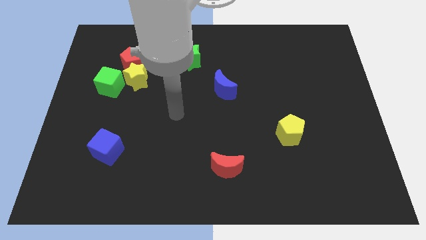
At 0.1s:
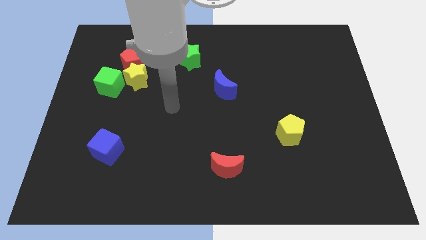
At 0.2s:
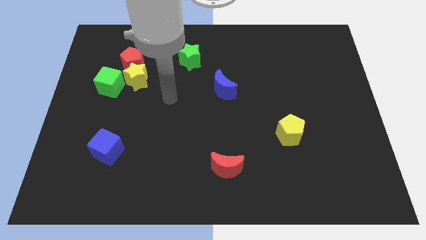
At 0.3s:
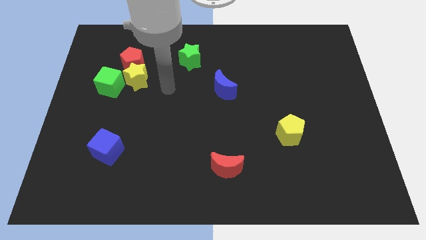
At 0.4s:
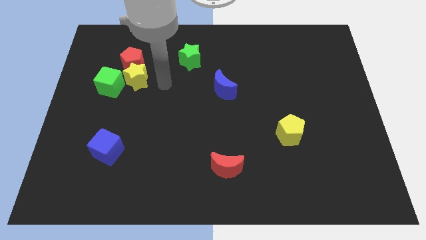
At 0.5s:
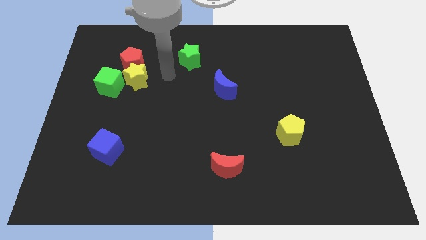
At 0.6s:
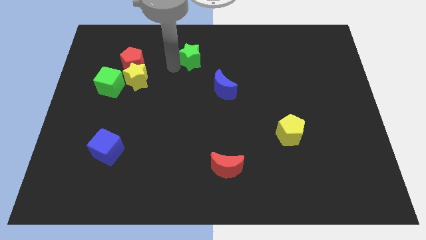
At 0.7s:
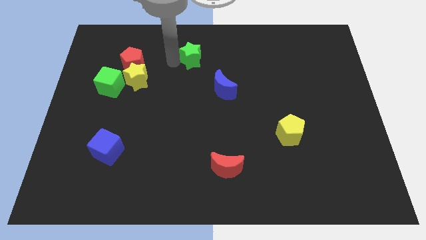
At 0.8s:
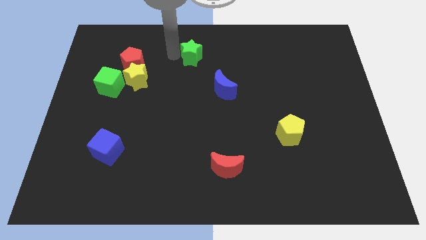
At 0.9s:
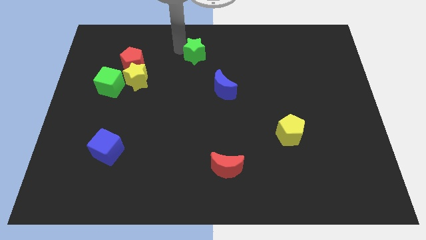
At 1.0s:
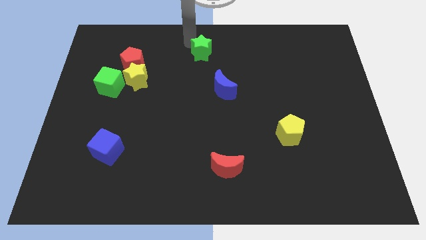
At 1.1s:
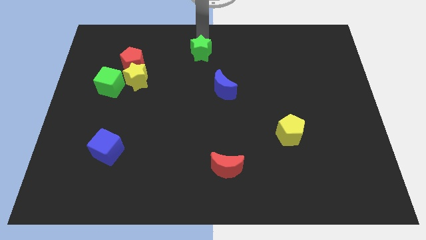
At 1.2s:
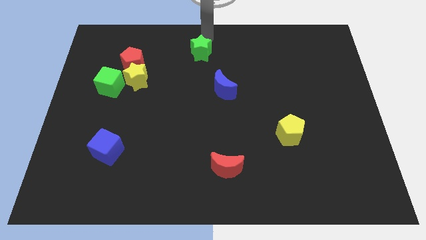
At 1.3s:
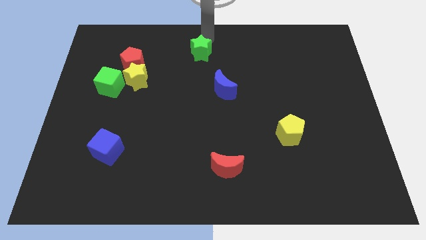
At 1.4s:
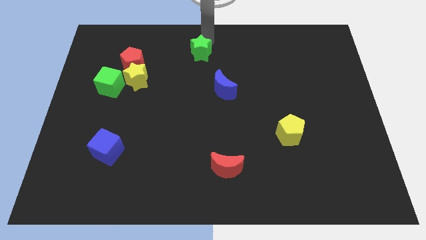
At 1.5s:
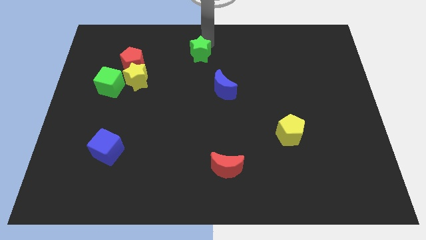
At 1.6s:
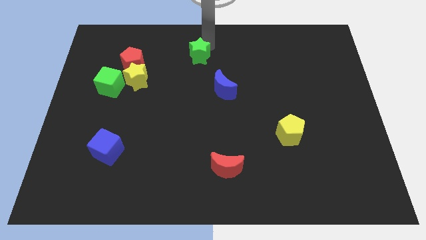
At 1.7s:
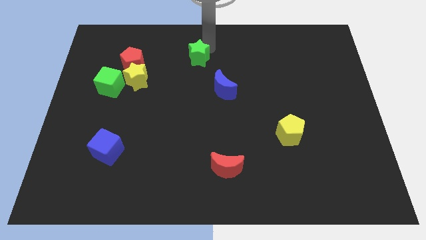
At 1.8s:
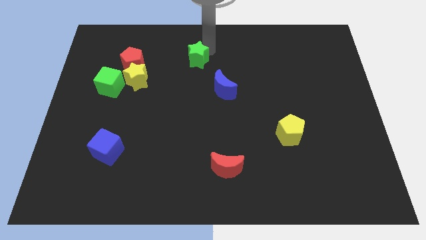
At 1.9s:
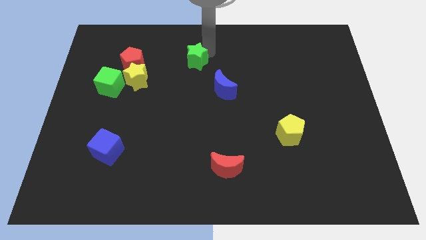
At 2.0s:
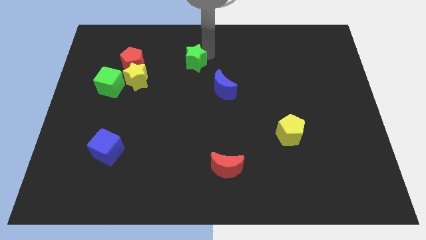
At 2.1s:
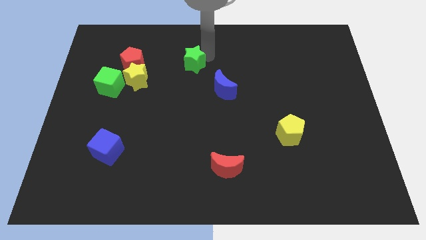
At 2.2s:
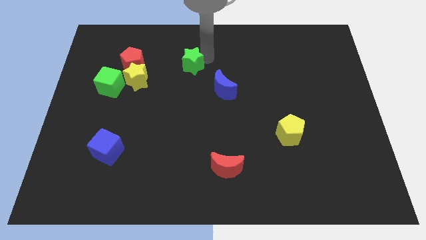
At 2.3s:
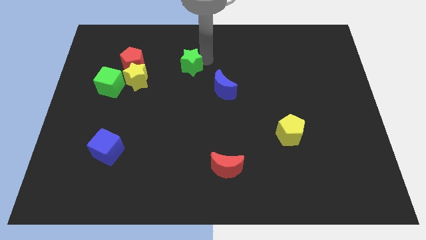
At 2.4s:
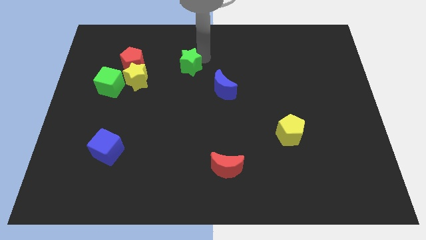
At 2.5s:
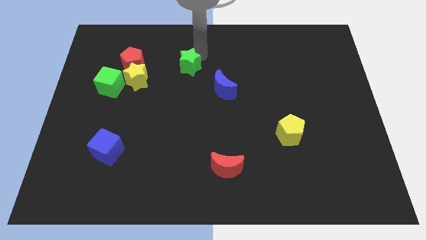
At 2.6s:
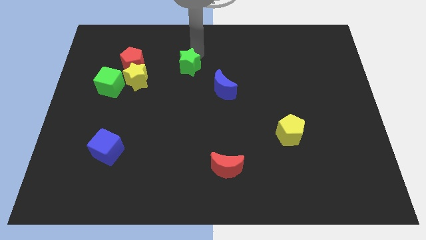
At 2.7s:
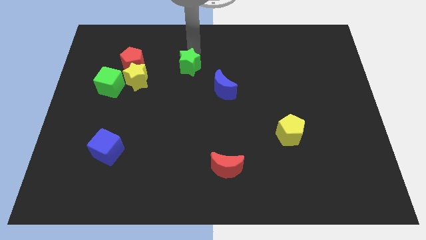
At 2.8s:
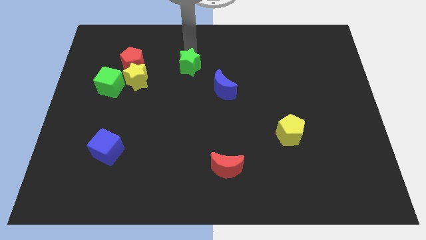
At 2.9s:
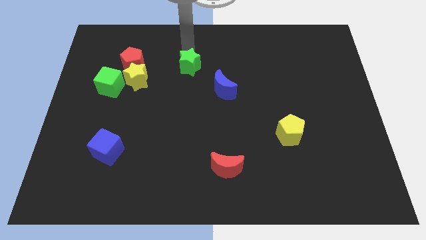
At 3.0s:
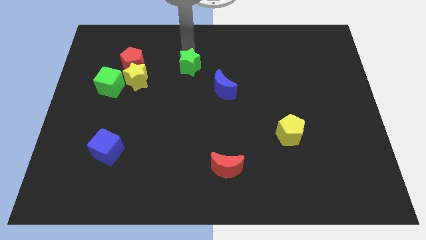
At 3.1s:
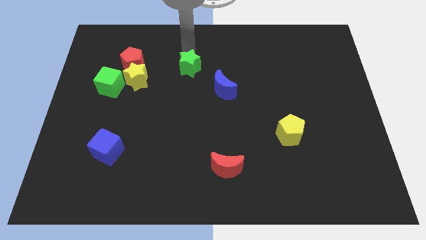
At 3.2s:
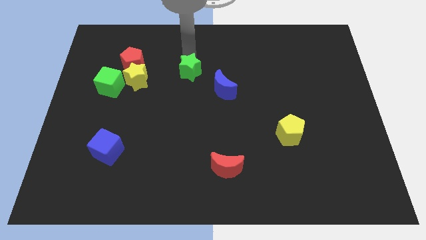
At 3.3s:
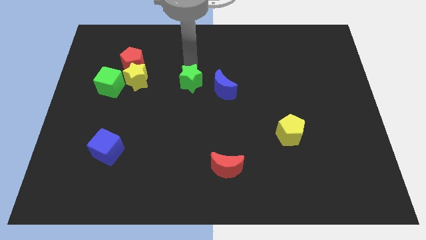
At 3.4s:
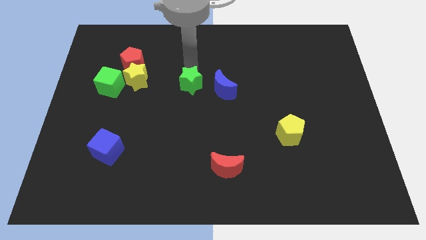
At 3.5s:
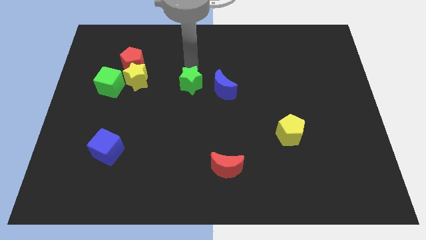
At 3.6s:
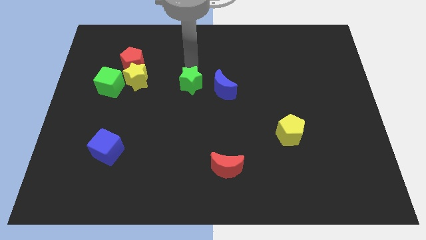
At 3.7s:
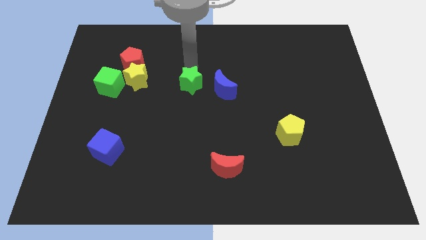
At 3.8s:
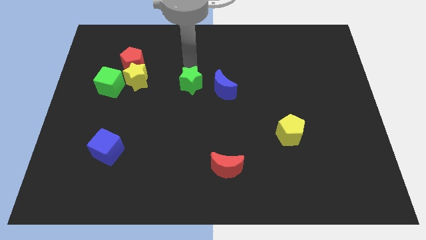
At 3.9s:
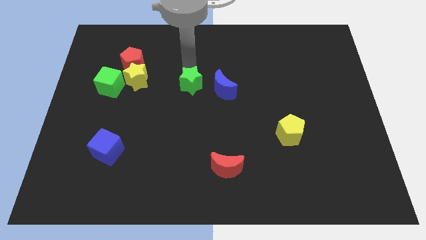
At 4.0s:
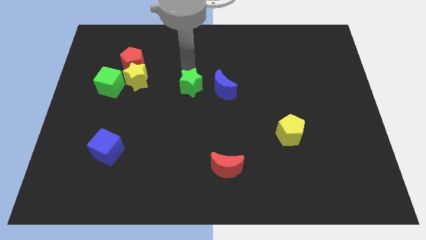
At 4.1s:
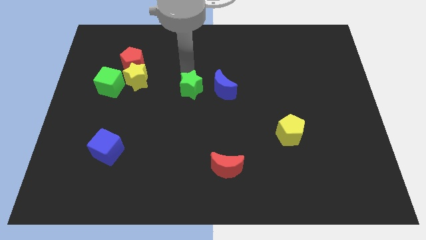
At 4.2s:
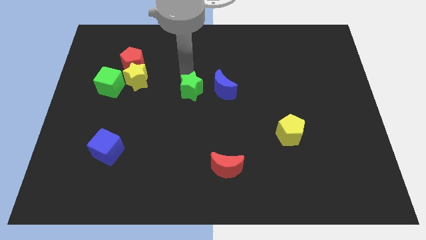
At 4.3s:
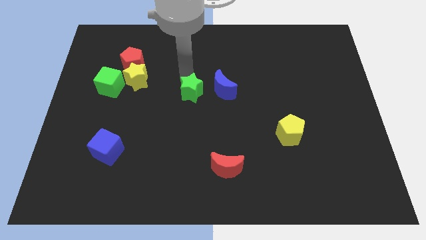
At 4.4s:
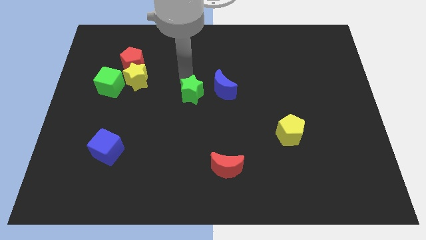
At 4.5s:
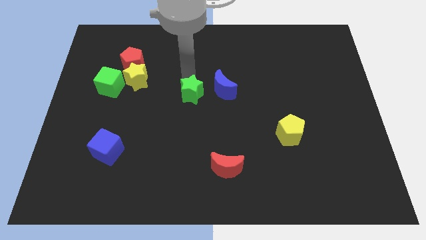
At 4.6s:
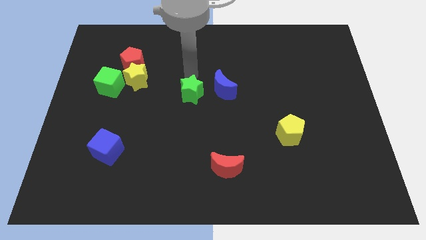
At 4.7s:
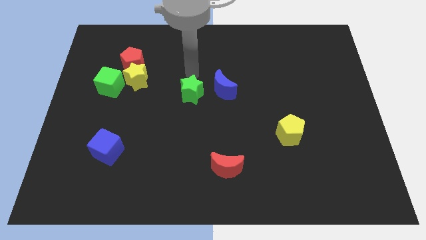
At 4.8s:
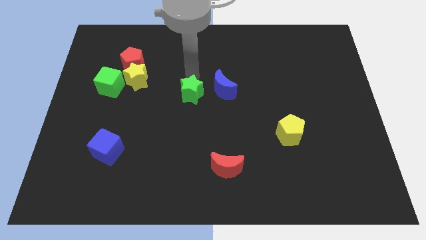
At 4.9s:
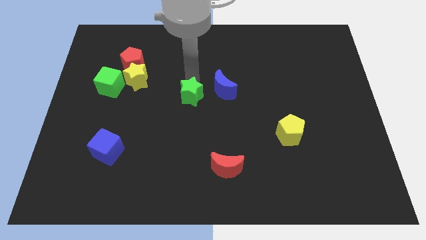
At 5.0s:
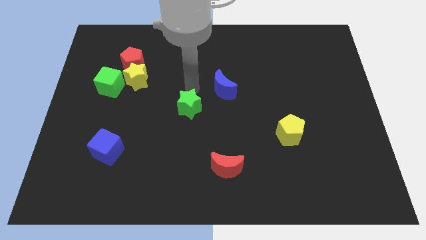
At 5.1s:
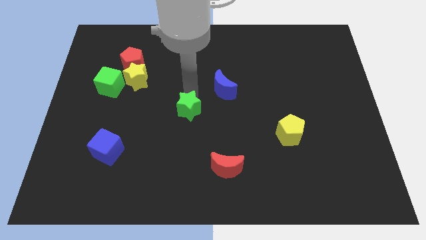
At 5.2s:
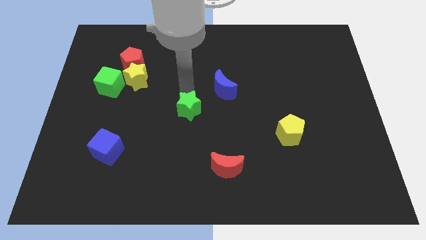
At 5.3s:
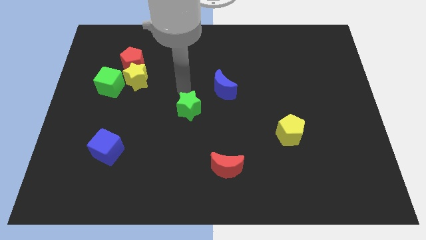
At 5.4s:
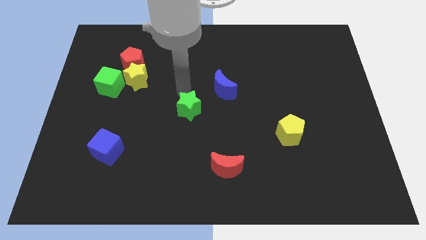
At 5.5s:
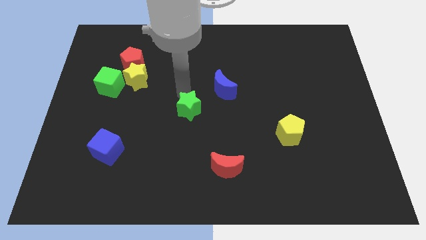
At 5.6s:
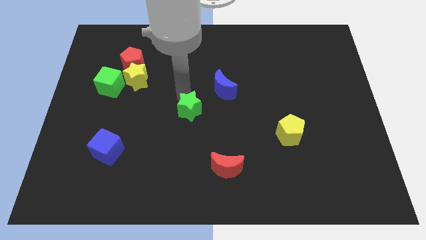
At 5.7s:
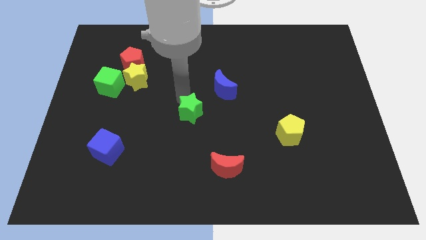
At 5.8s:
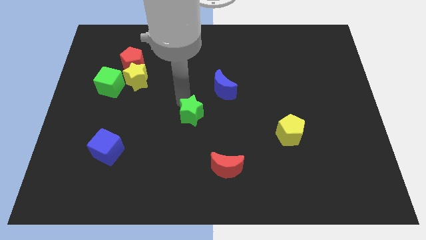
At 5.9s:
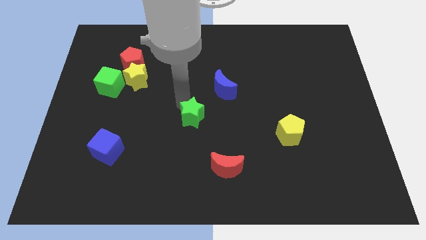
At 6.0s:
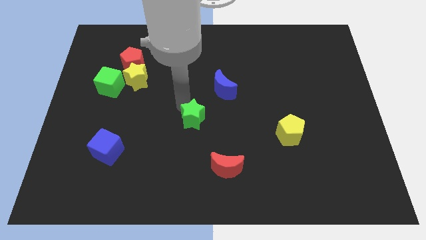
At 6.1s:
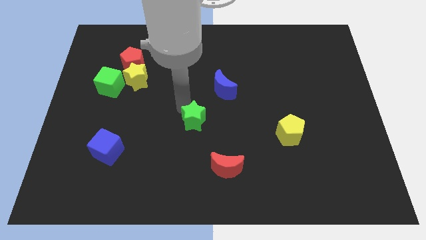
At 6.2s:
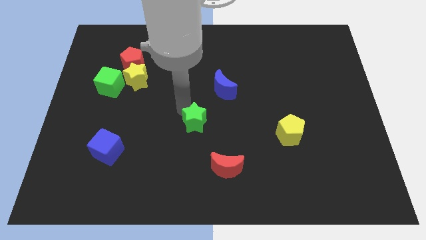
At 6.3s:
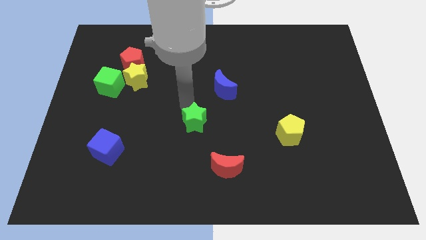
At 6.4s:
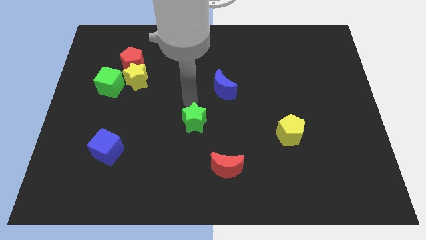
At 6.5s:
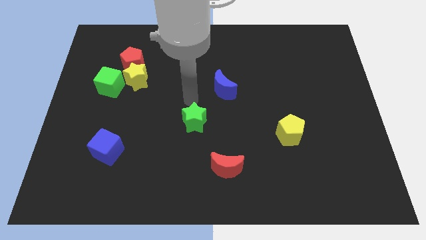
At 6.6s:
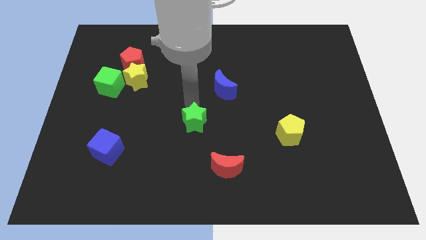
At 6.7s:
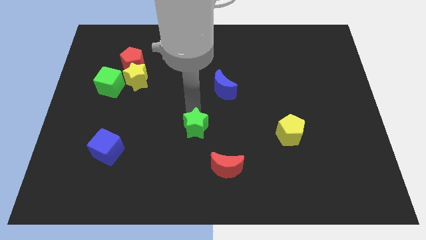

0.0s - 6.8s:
put the green star diagonally up and to the left of the red moon
